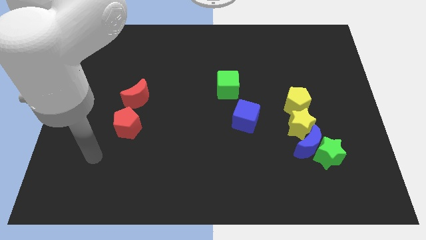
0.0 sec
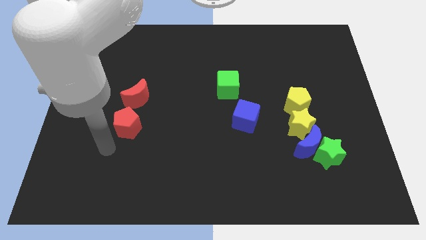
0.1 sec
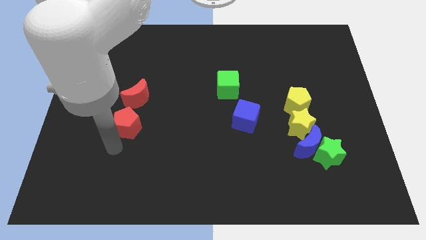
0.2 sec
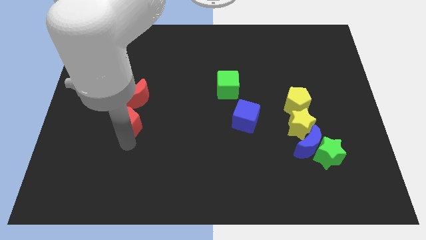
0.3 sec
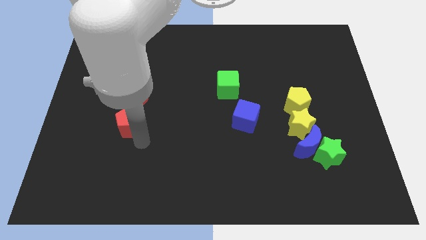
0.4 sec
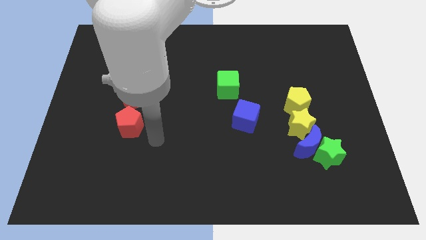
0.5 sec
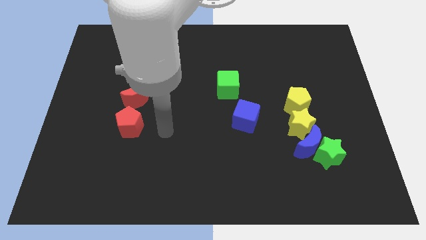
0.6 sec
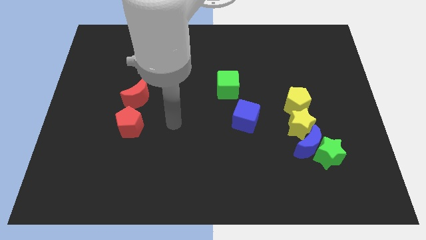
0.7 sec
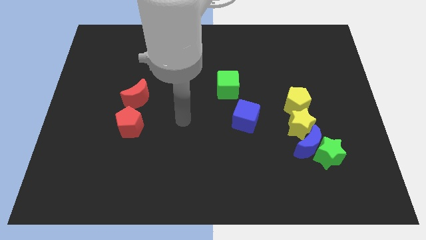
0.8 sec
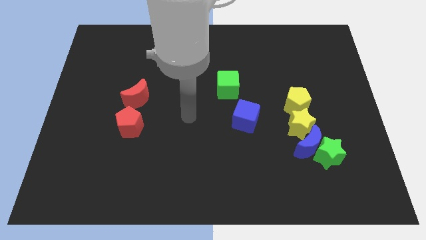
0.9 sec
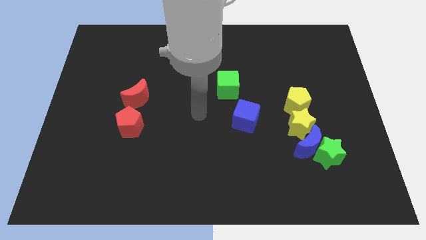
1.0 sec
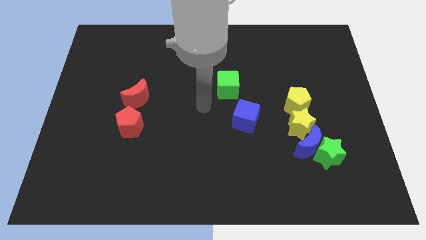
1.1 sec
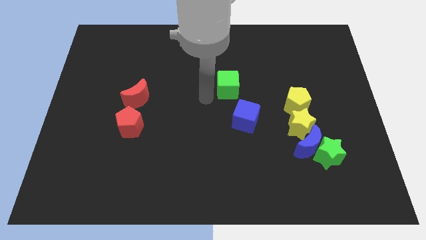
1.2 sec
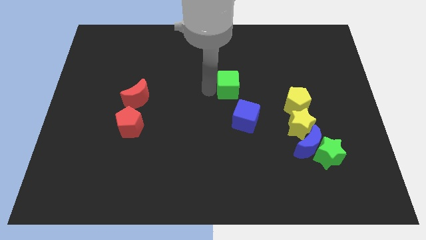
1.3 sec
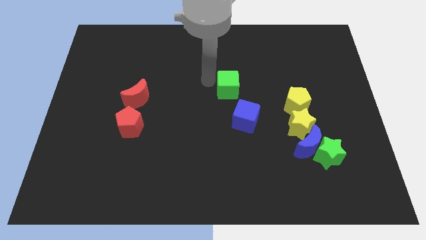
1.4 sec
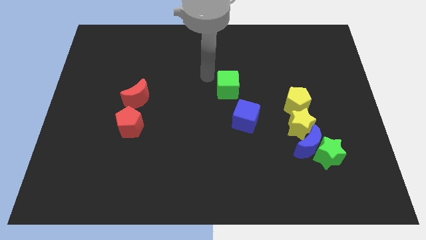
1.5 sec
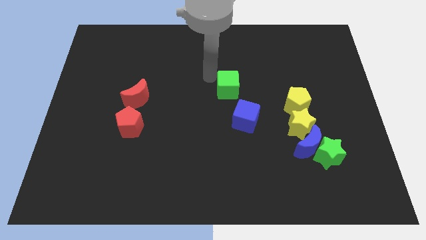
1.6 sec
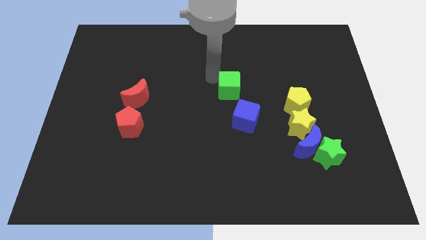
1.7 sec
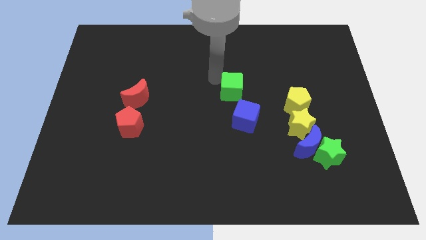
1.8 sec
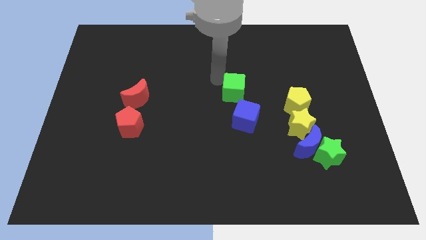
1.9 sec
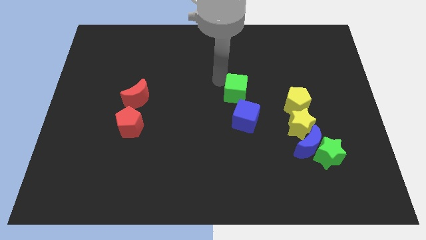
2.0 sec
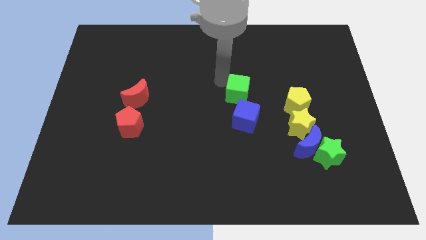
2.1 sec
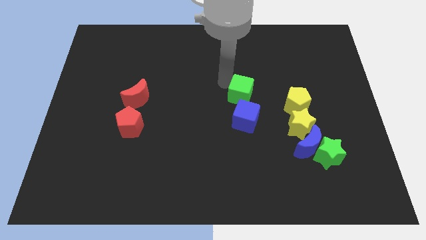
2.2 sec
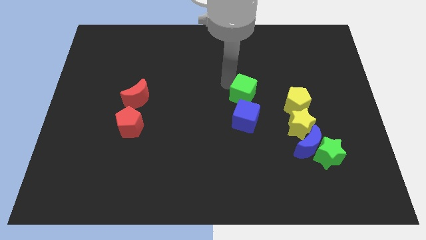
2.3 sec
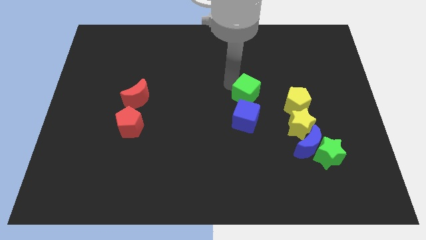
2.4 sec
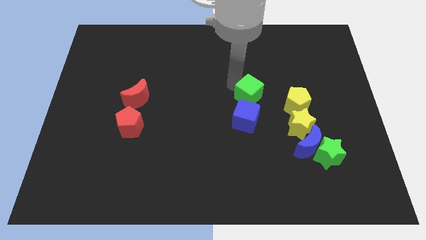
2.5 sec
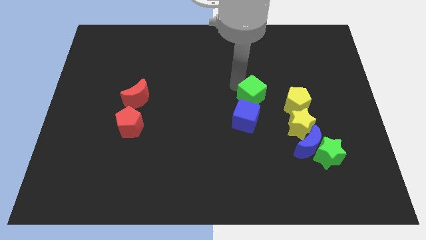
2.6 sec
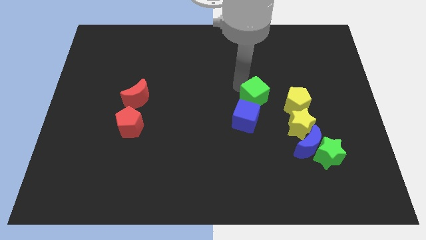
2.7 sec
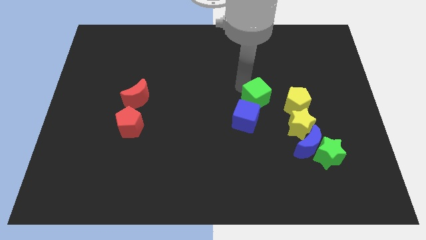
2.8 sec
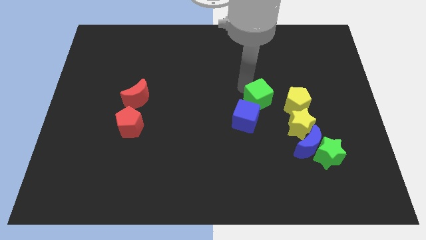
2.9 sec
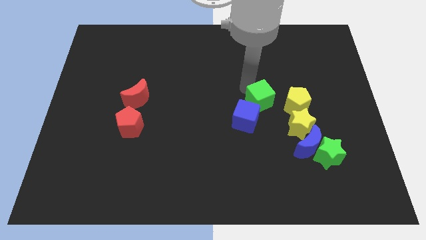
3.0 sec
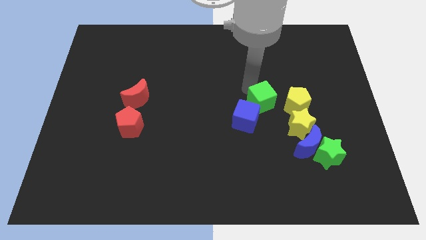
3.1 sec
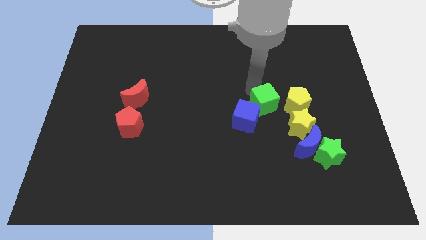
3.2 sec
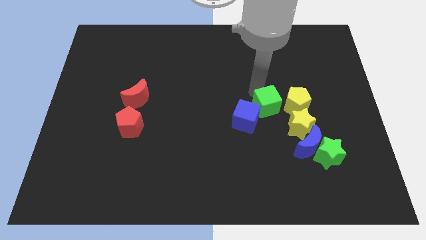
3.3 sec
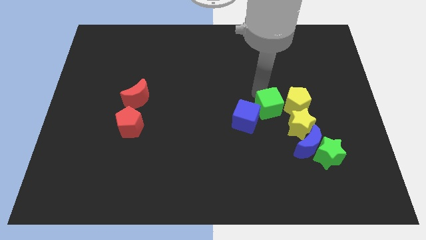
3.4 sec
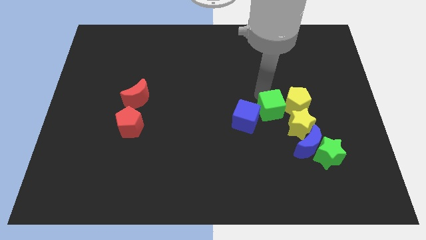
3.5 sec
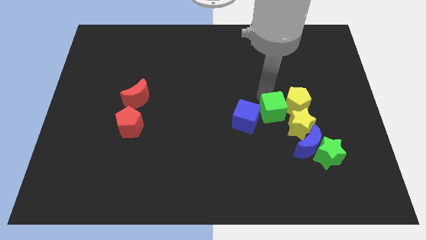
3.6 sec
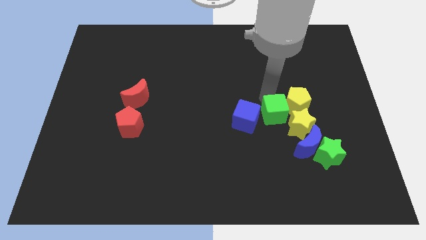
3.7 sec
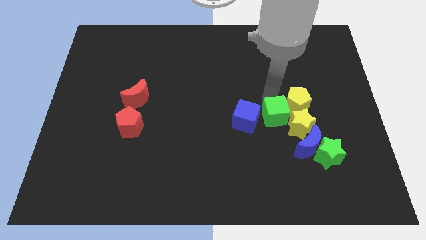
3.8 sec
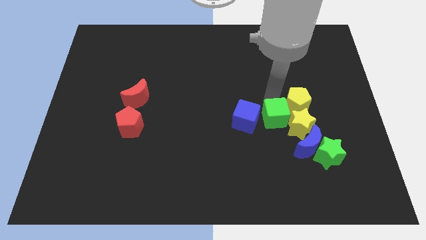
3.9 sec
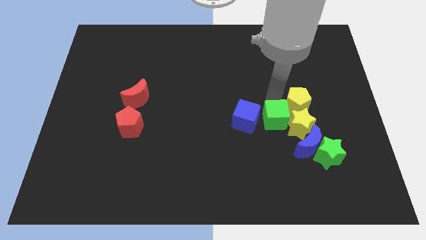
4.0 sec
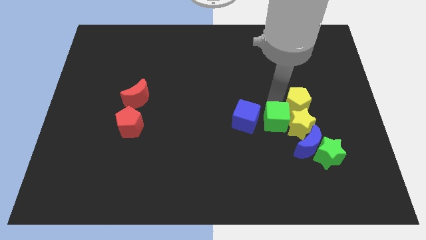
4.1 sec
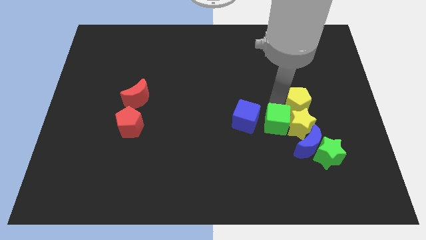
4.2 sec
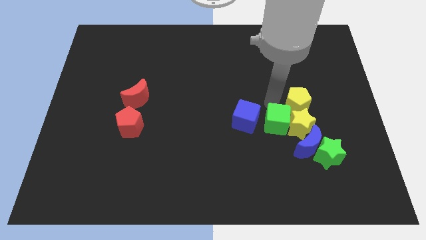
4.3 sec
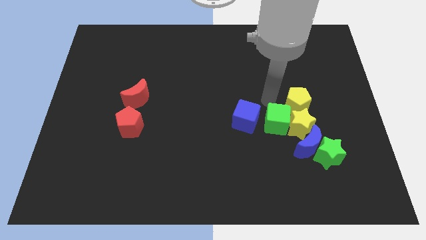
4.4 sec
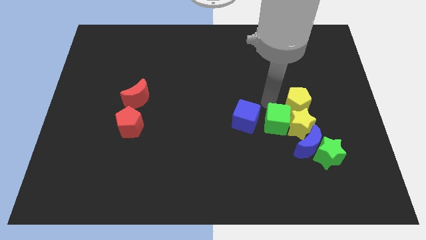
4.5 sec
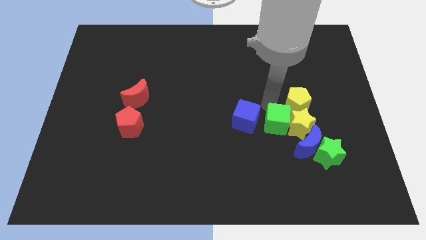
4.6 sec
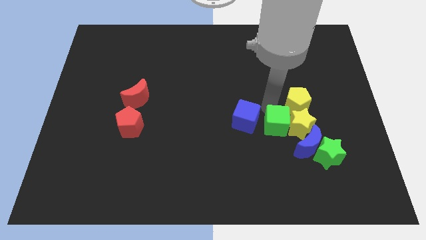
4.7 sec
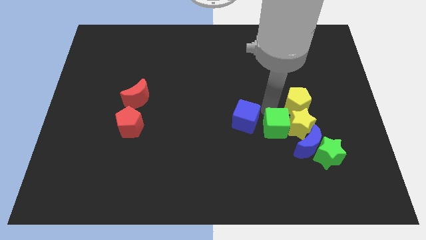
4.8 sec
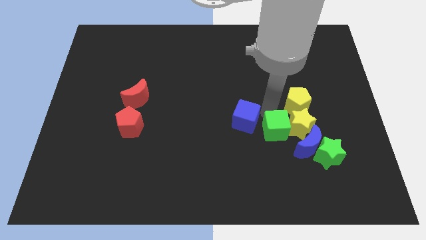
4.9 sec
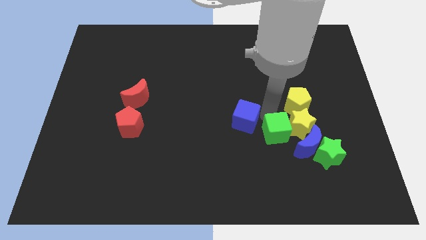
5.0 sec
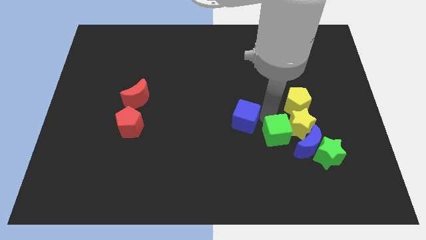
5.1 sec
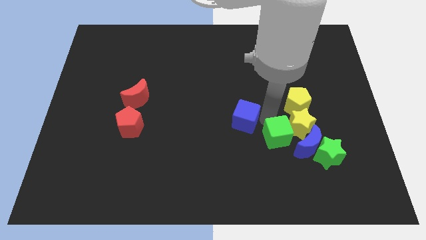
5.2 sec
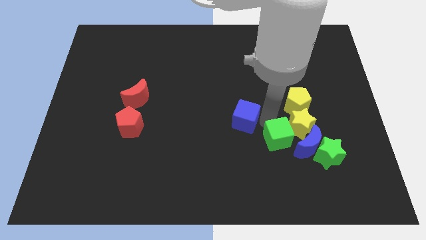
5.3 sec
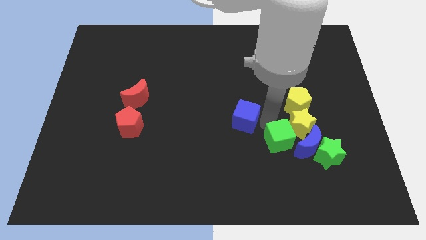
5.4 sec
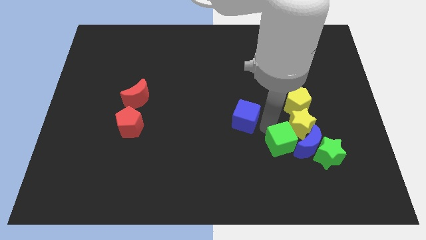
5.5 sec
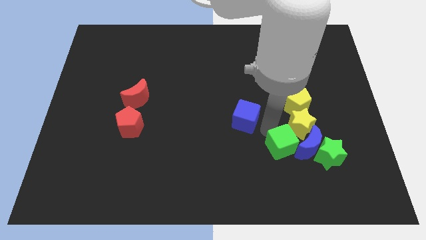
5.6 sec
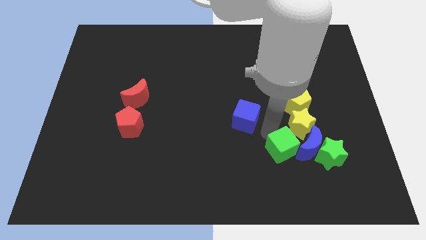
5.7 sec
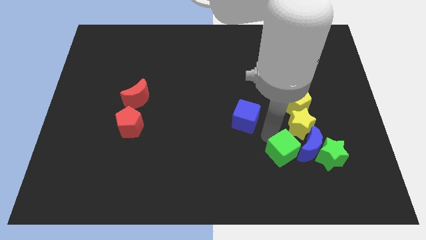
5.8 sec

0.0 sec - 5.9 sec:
slide the green cube down and then right

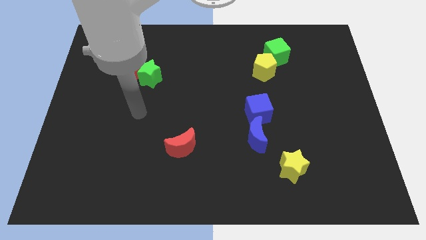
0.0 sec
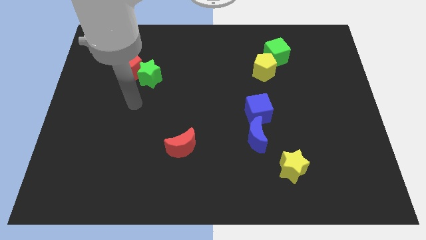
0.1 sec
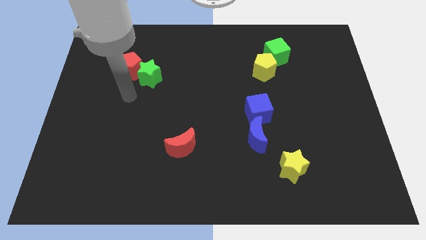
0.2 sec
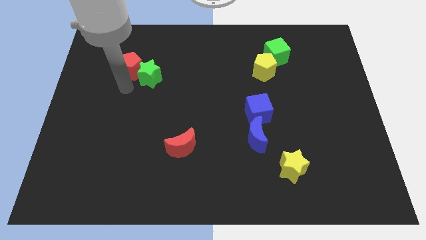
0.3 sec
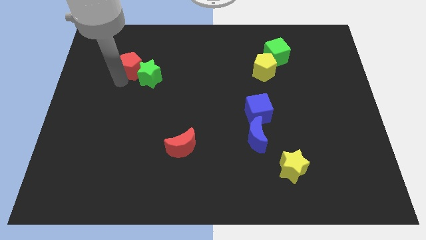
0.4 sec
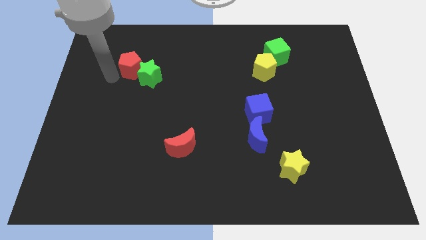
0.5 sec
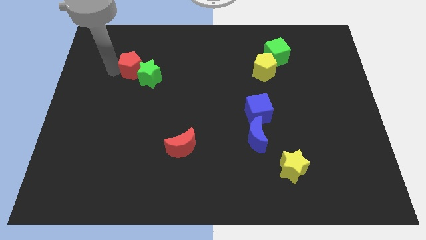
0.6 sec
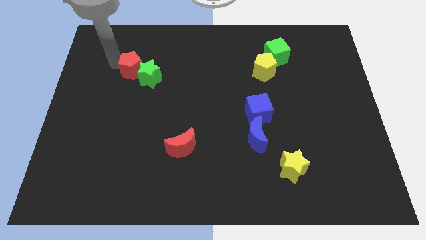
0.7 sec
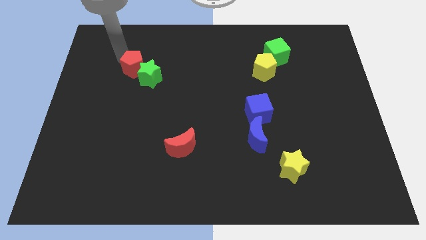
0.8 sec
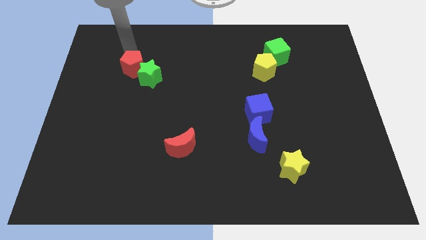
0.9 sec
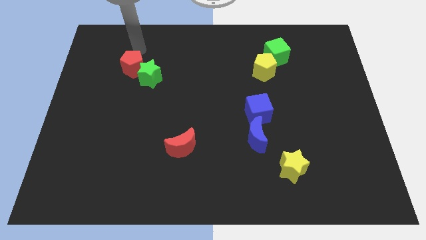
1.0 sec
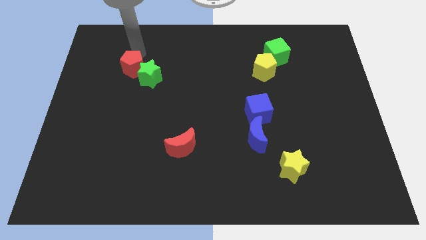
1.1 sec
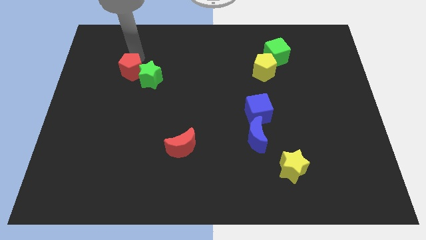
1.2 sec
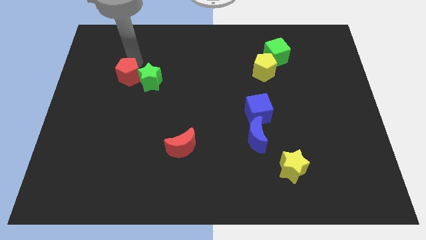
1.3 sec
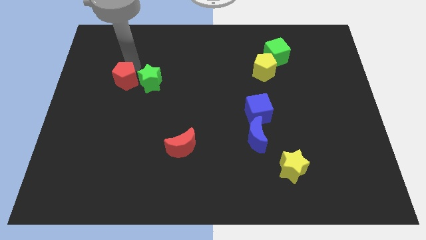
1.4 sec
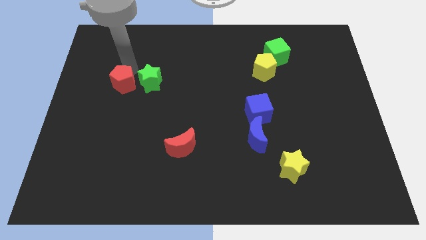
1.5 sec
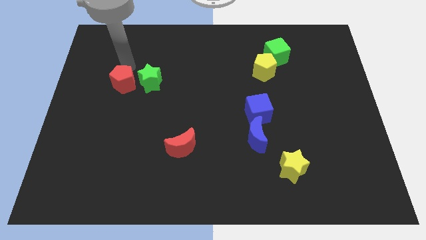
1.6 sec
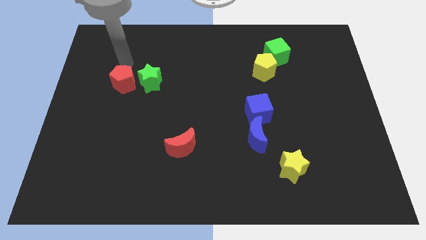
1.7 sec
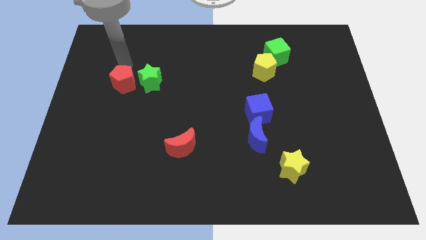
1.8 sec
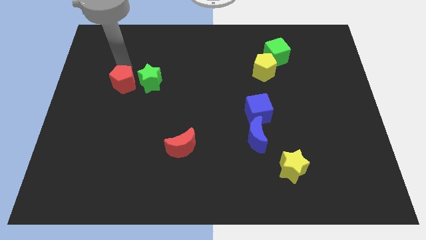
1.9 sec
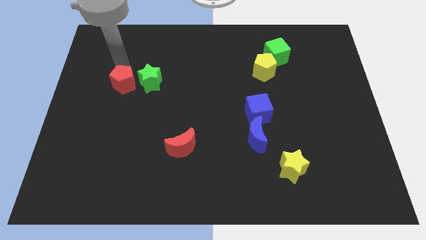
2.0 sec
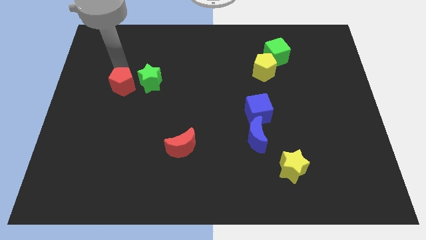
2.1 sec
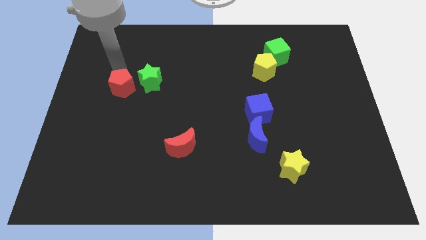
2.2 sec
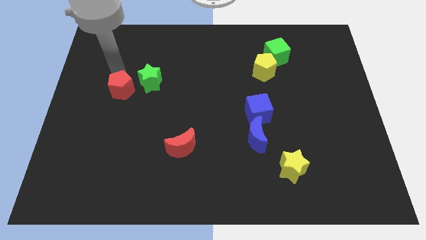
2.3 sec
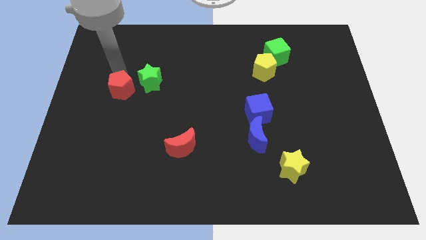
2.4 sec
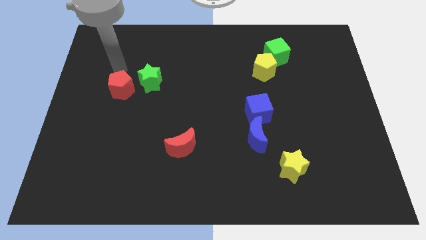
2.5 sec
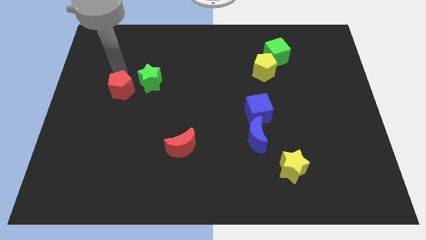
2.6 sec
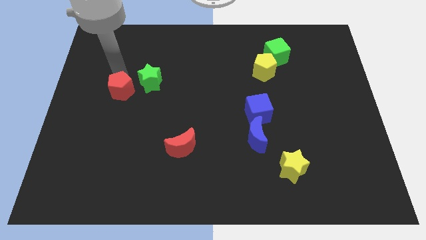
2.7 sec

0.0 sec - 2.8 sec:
move the red pentagon somewhat down
